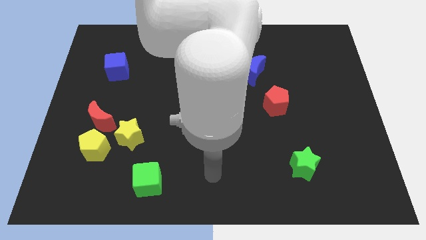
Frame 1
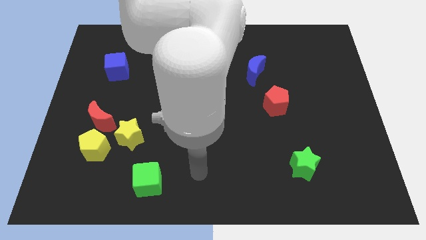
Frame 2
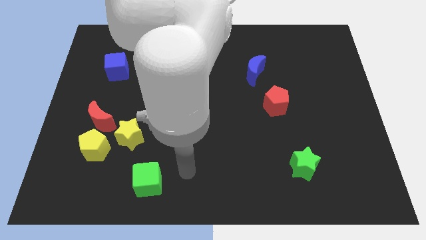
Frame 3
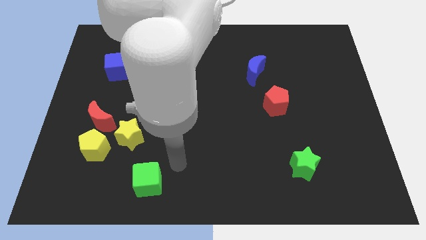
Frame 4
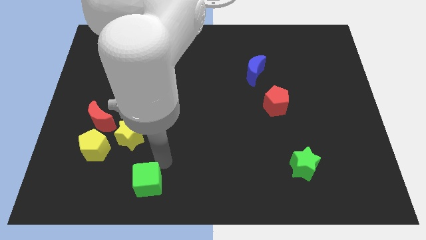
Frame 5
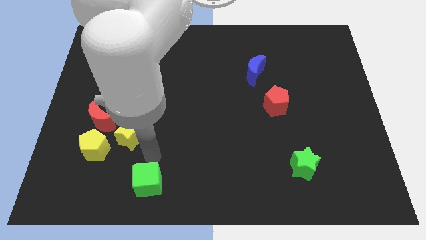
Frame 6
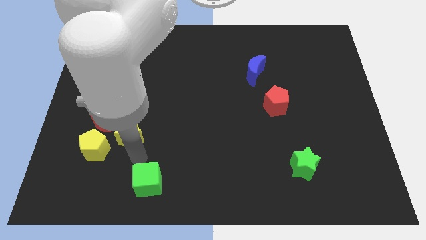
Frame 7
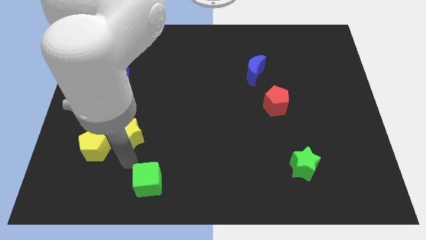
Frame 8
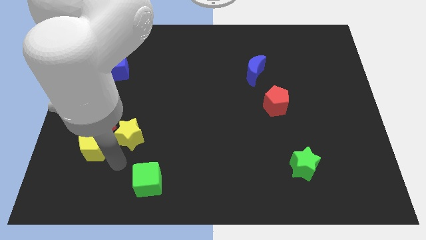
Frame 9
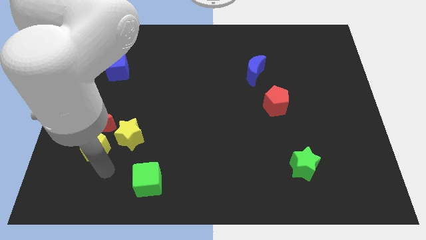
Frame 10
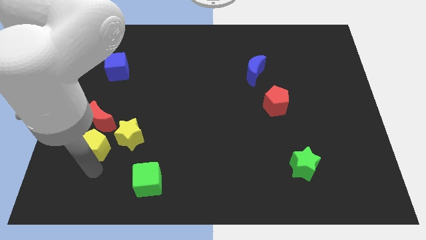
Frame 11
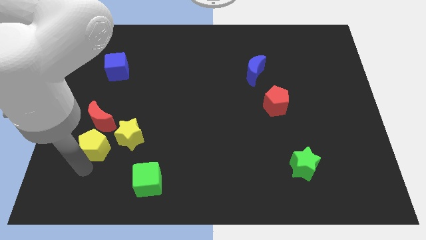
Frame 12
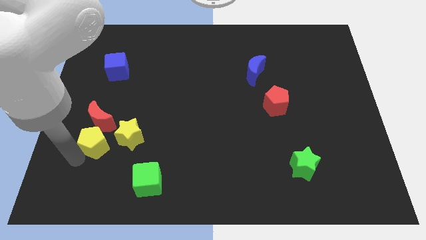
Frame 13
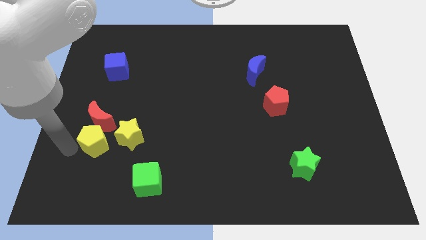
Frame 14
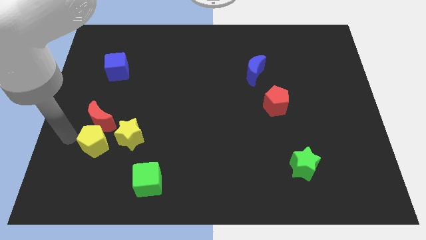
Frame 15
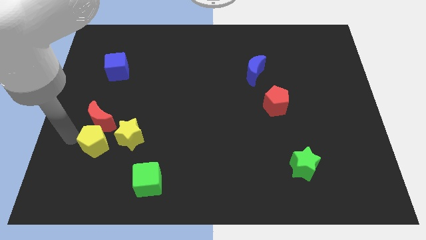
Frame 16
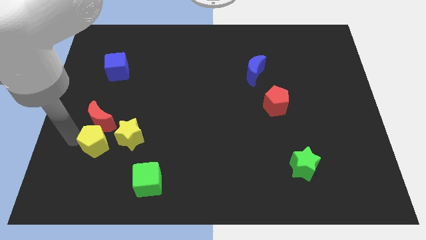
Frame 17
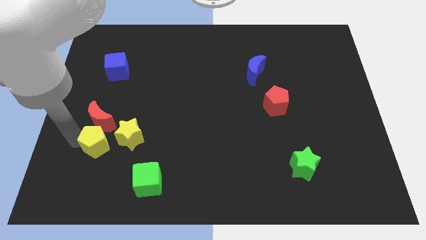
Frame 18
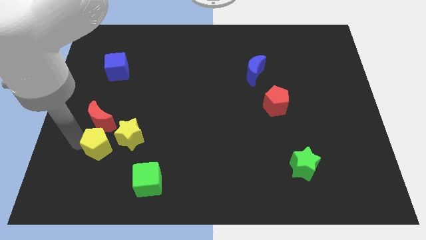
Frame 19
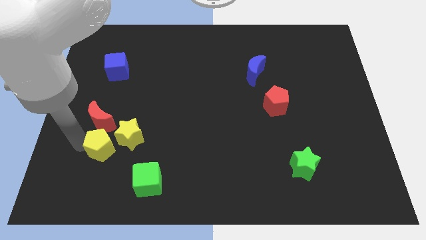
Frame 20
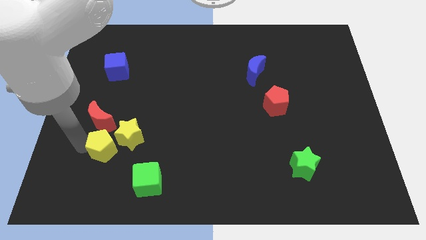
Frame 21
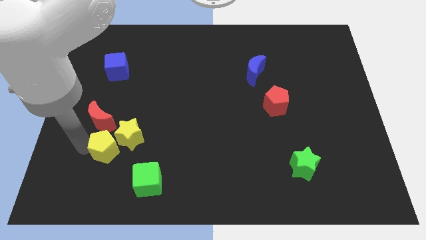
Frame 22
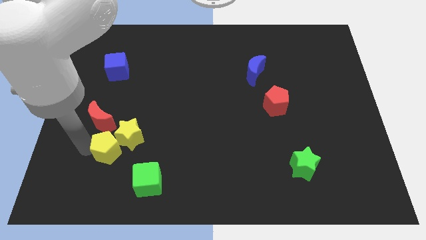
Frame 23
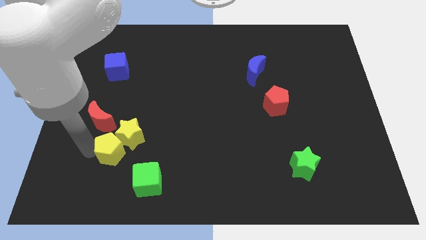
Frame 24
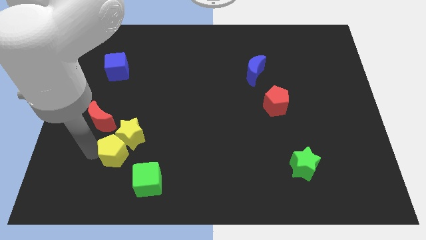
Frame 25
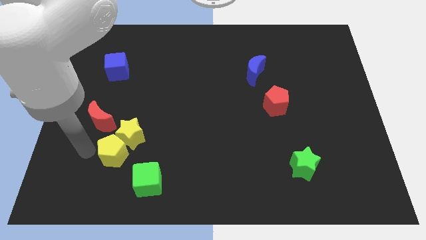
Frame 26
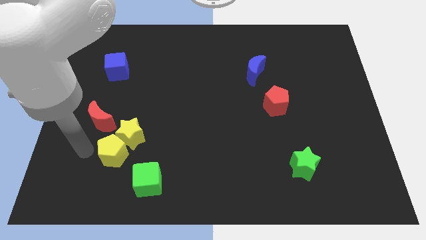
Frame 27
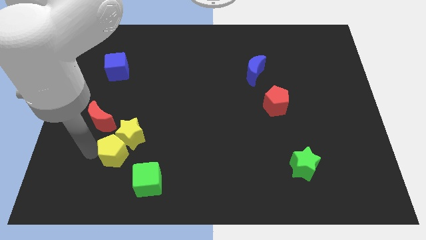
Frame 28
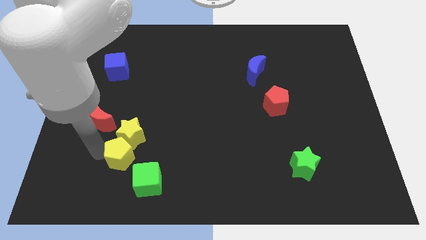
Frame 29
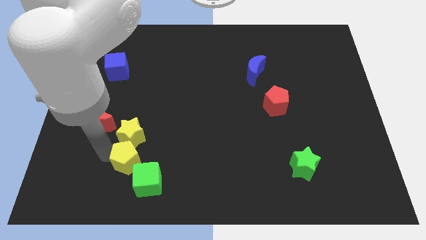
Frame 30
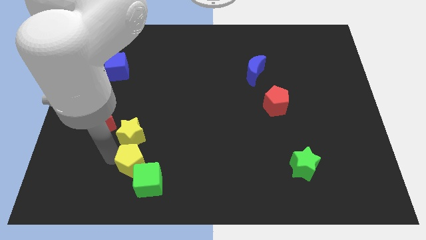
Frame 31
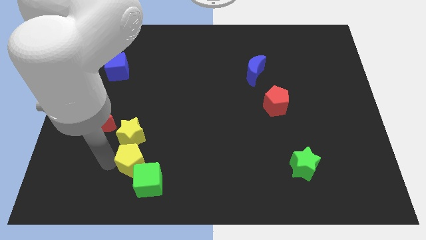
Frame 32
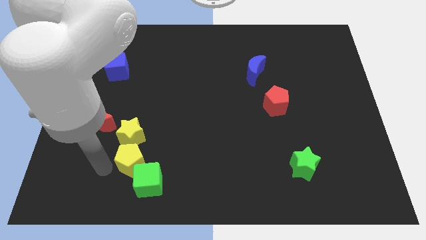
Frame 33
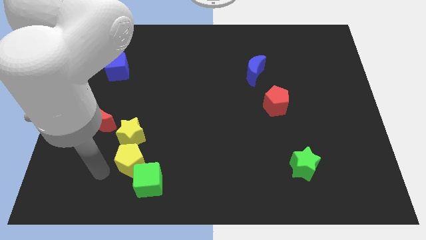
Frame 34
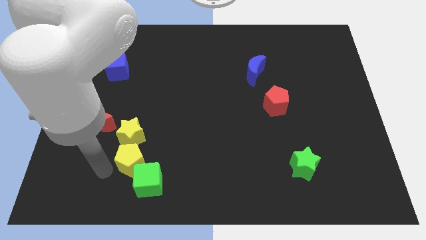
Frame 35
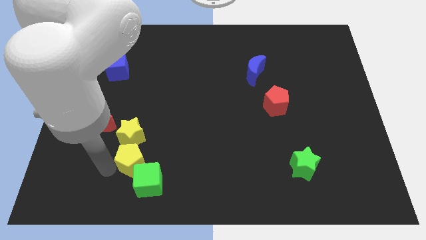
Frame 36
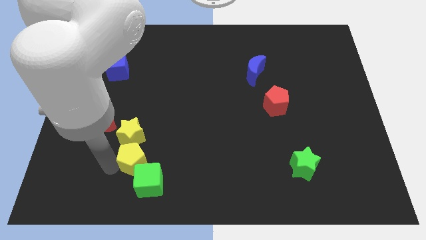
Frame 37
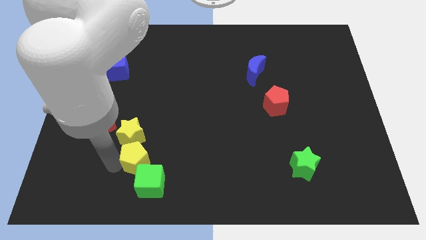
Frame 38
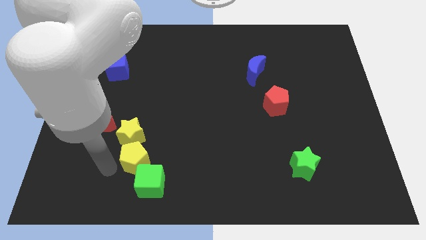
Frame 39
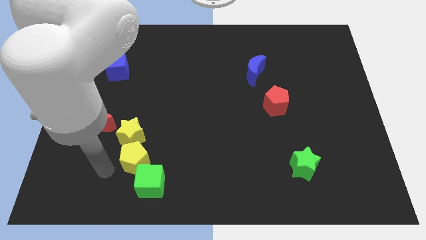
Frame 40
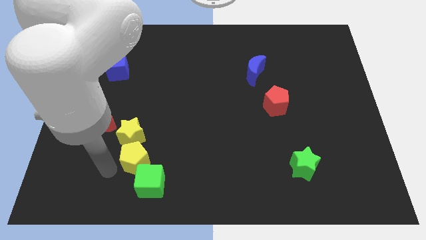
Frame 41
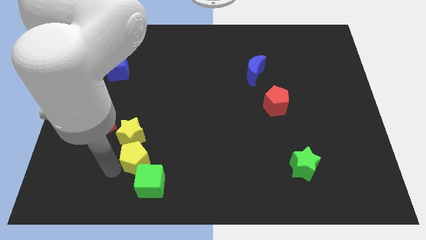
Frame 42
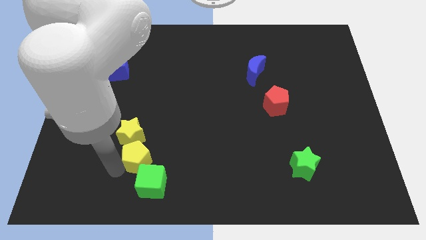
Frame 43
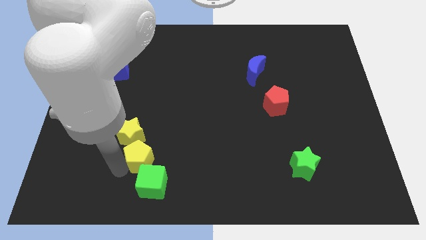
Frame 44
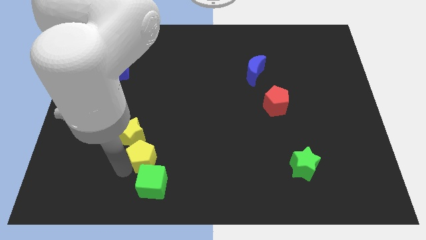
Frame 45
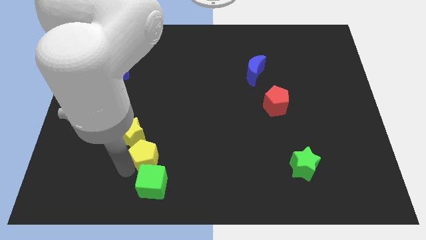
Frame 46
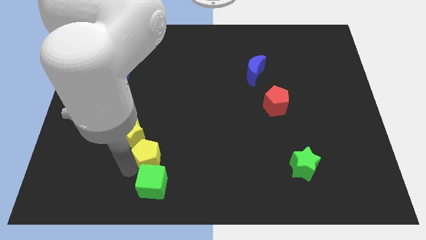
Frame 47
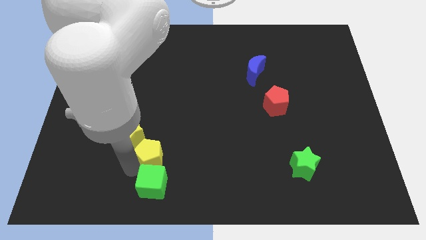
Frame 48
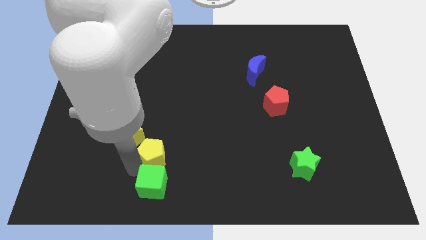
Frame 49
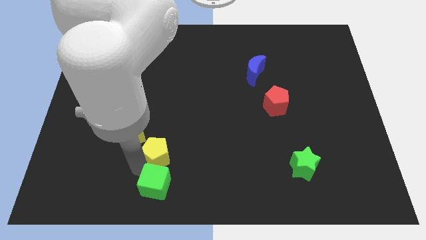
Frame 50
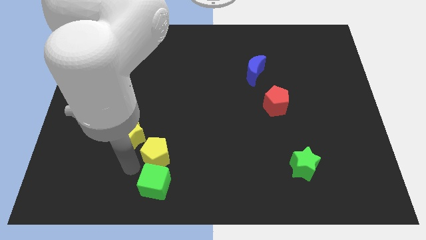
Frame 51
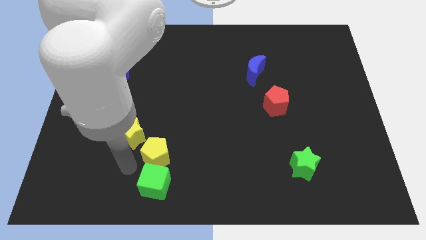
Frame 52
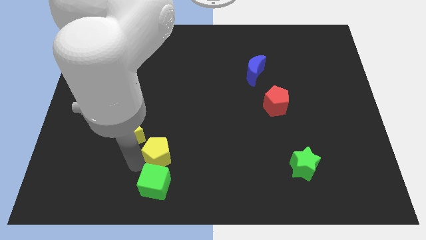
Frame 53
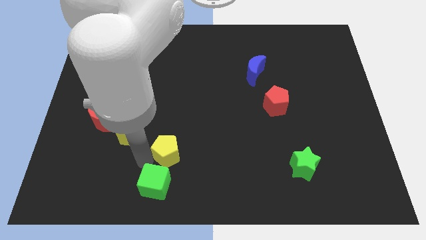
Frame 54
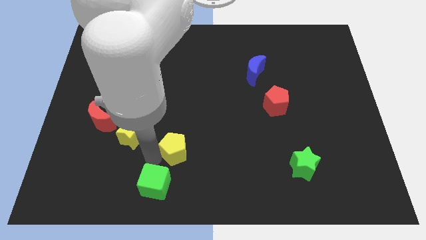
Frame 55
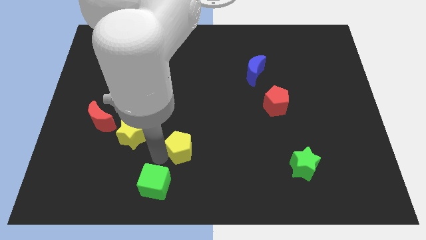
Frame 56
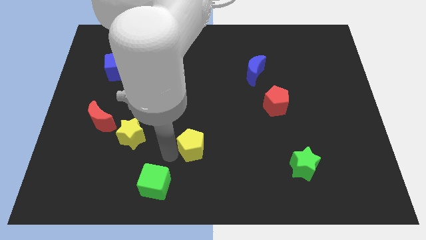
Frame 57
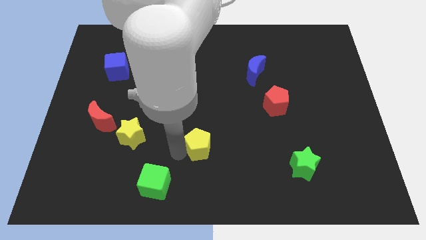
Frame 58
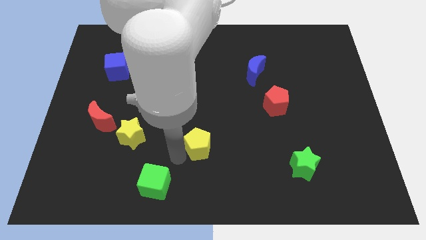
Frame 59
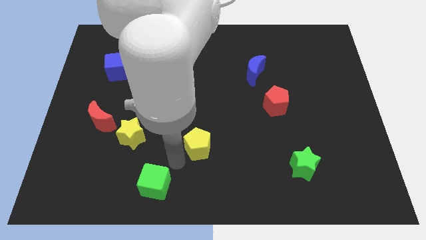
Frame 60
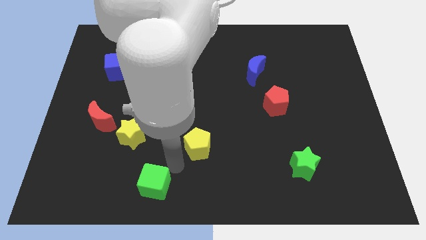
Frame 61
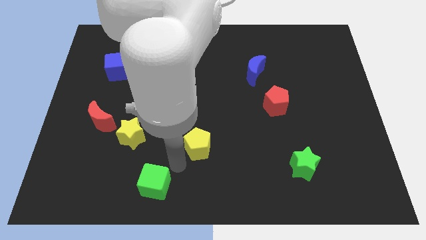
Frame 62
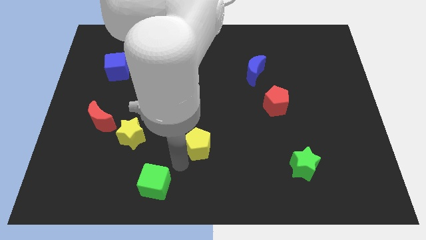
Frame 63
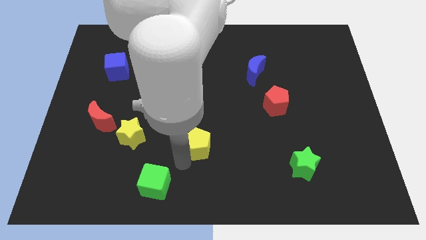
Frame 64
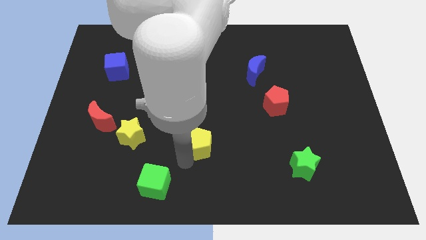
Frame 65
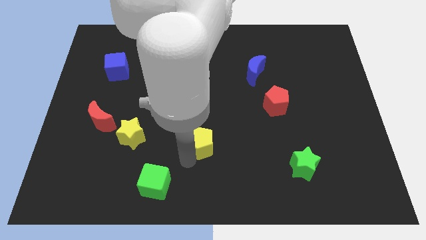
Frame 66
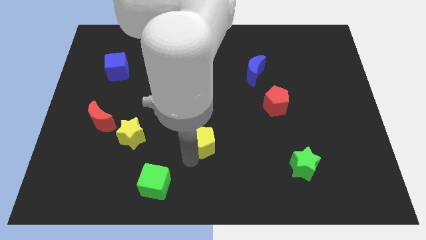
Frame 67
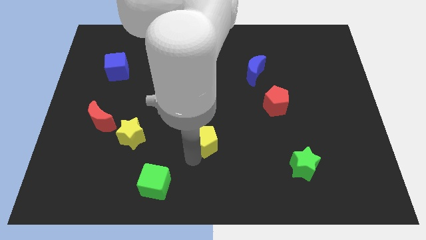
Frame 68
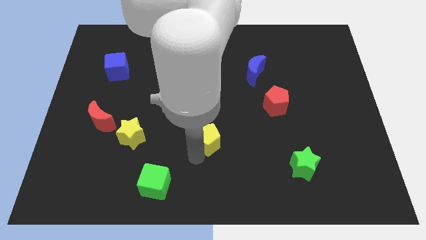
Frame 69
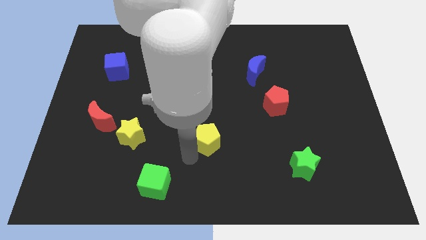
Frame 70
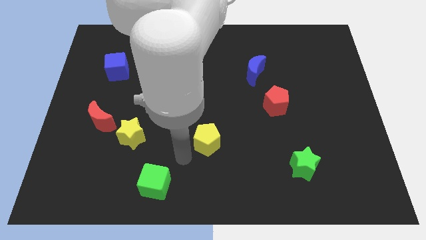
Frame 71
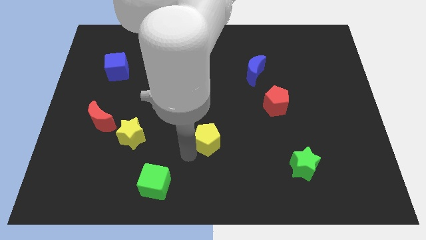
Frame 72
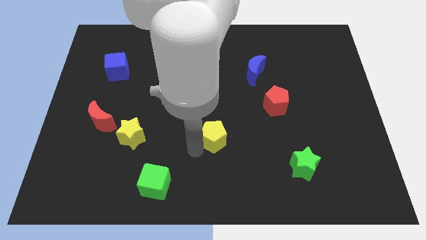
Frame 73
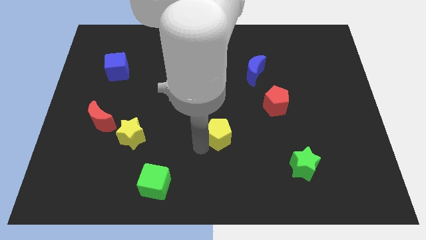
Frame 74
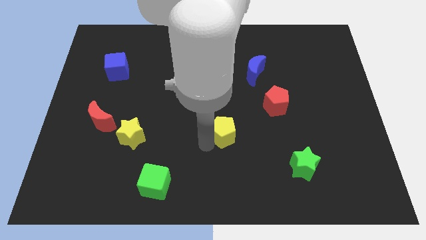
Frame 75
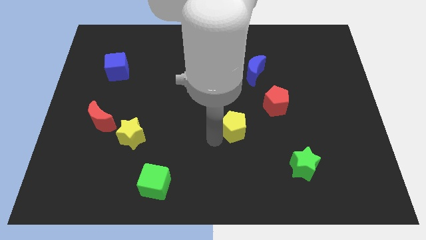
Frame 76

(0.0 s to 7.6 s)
put the yellow pentagon diagonally down and to the left of the red pentagon
